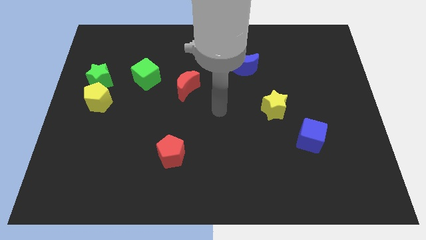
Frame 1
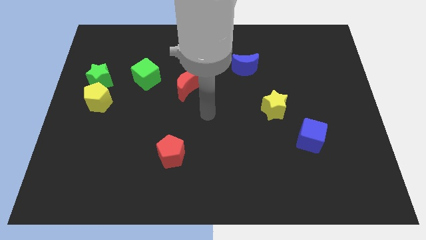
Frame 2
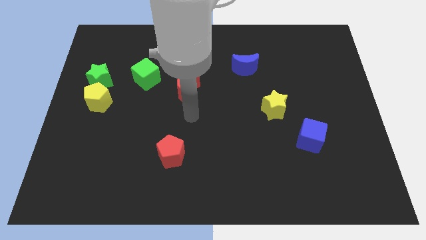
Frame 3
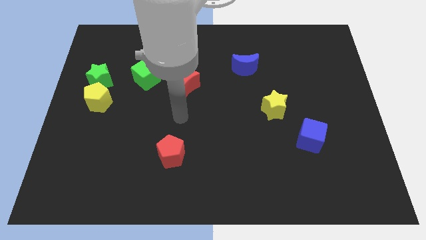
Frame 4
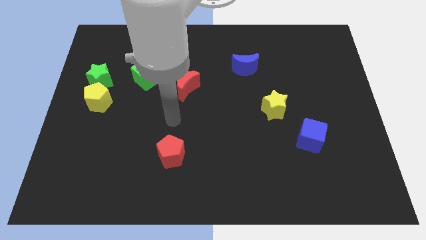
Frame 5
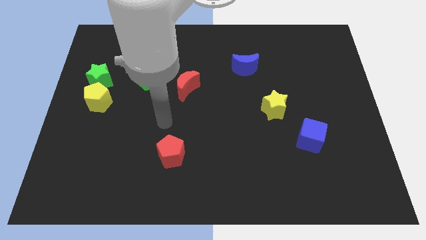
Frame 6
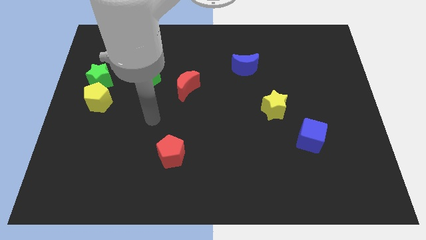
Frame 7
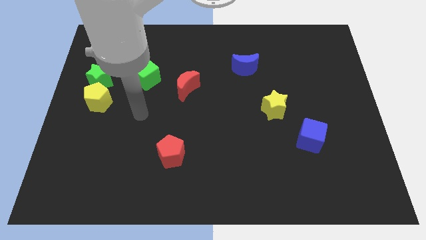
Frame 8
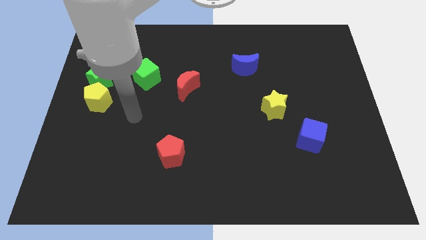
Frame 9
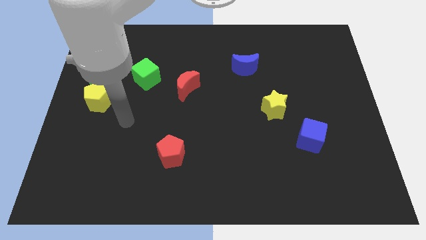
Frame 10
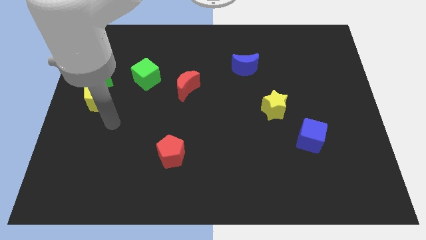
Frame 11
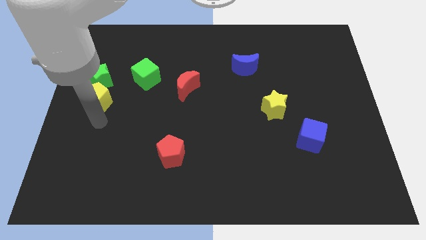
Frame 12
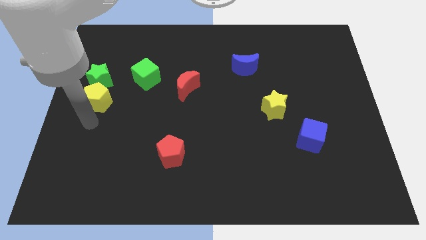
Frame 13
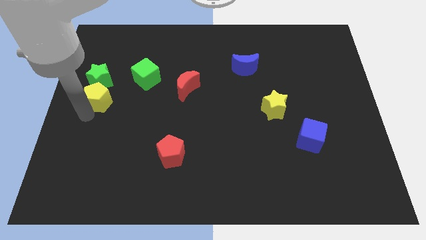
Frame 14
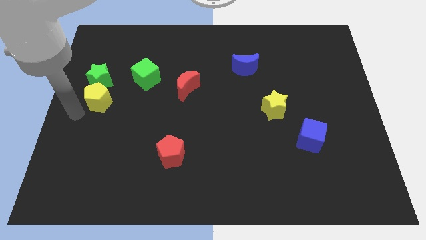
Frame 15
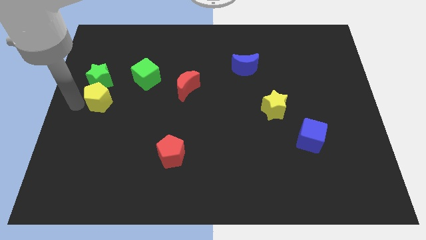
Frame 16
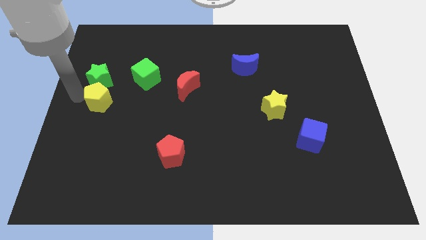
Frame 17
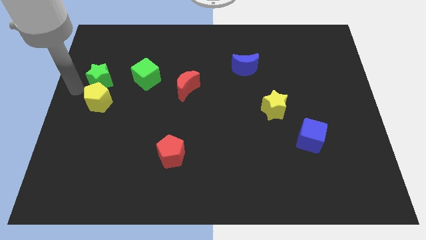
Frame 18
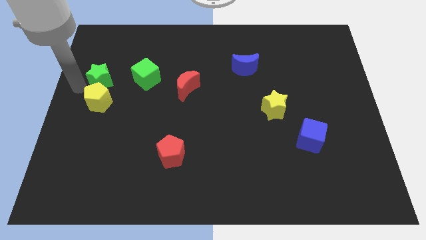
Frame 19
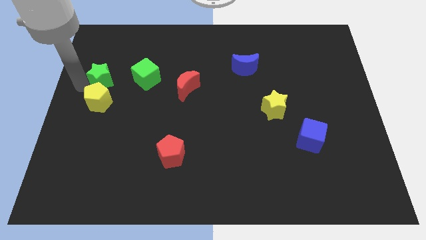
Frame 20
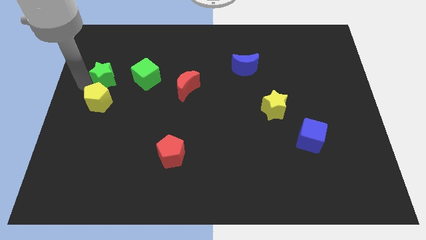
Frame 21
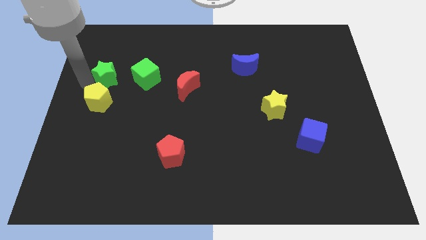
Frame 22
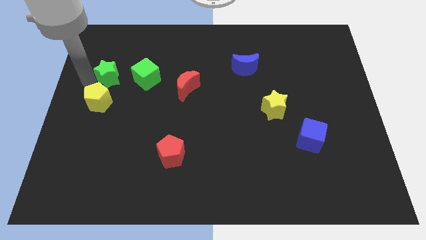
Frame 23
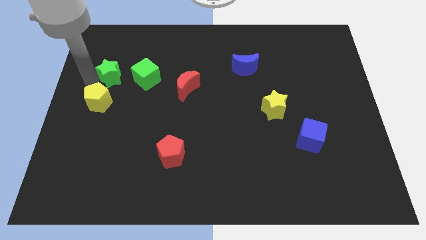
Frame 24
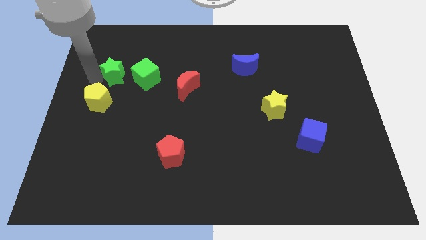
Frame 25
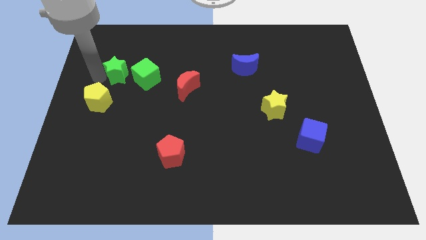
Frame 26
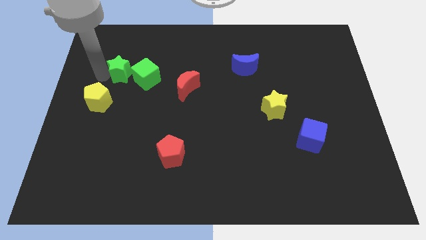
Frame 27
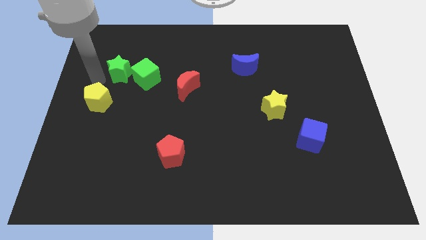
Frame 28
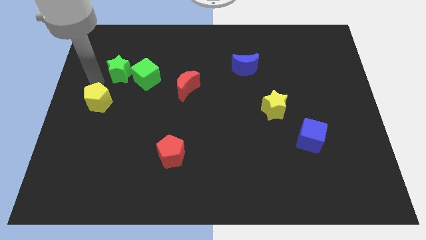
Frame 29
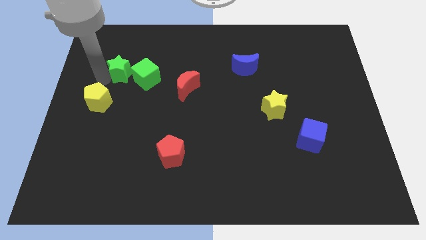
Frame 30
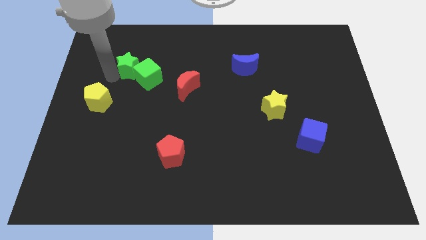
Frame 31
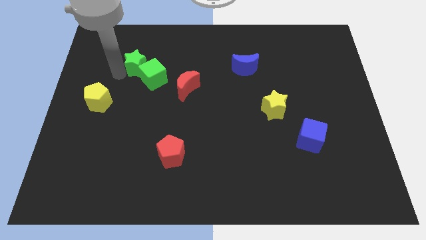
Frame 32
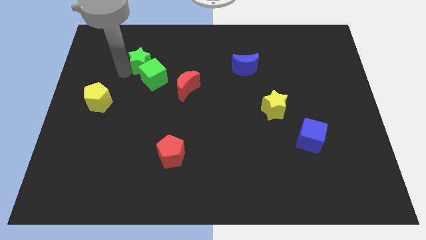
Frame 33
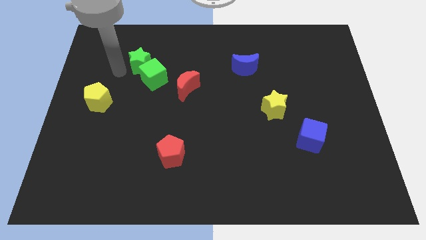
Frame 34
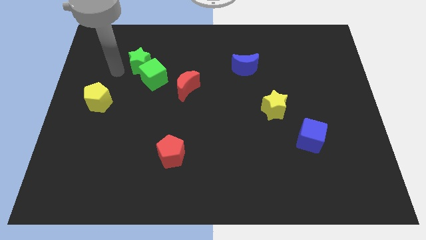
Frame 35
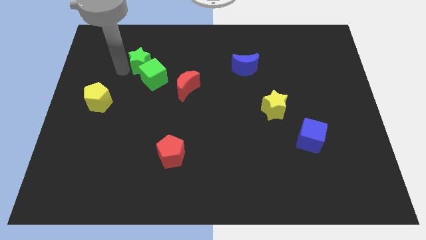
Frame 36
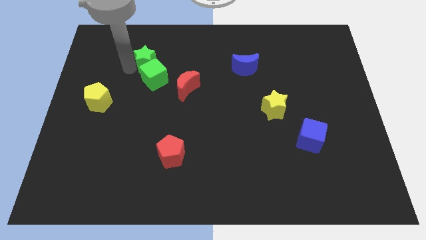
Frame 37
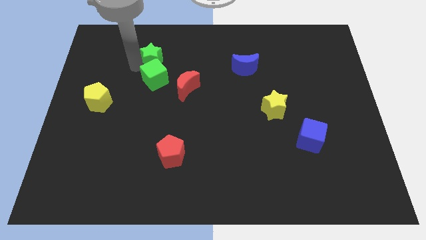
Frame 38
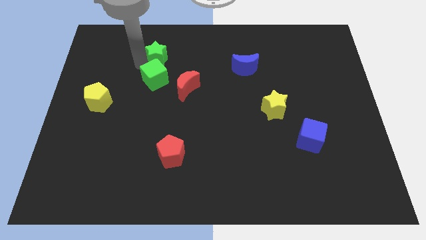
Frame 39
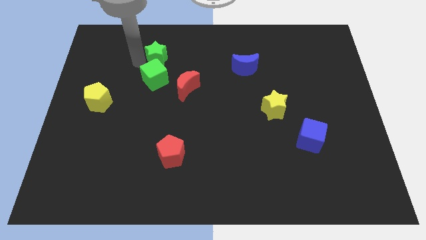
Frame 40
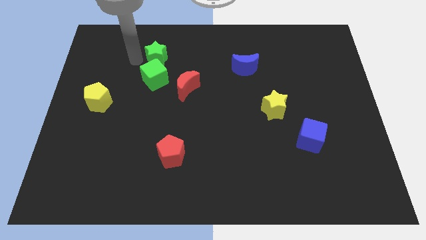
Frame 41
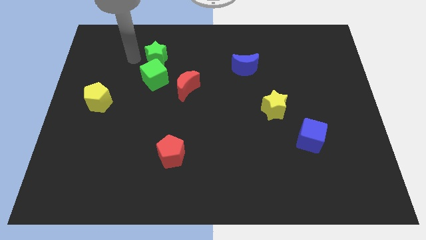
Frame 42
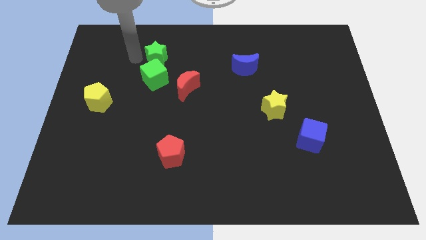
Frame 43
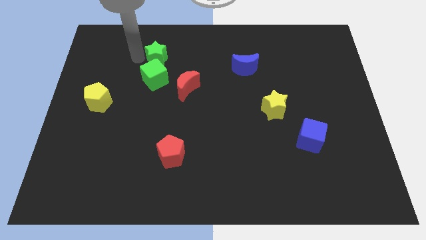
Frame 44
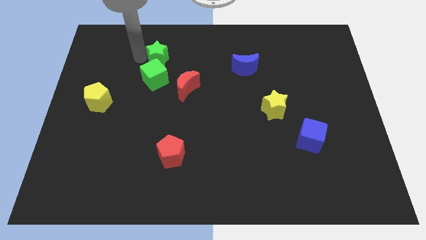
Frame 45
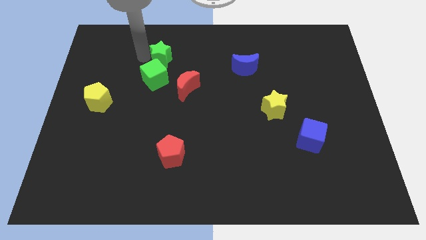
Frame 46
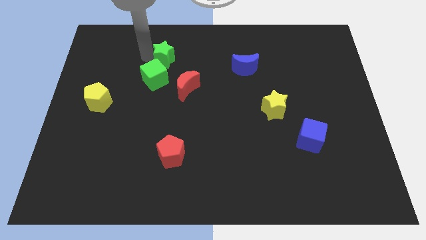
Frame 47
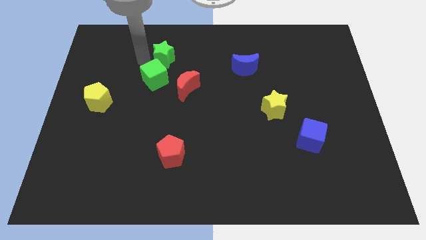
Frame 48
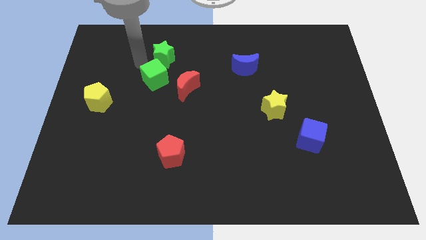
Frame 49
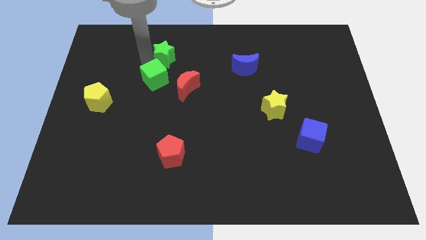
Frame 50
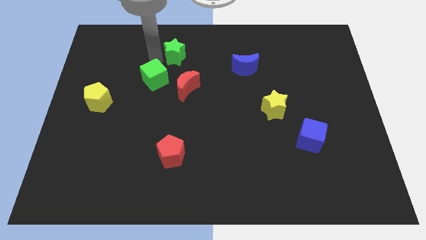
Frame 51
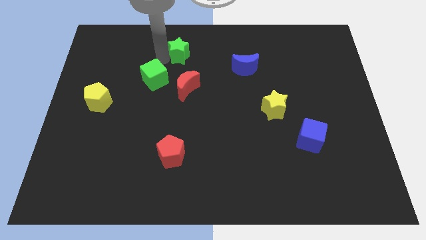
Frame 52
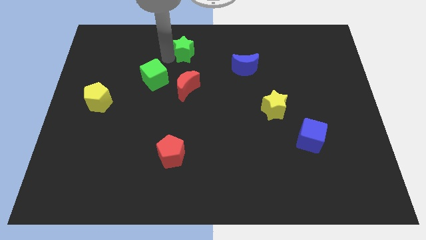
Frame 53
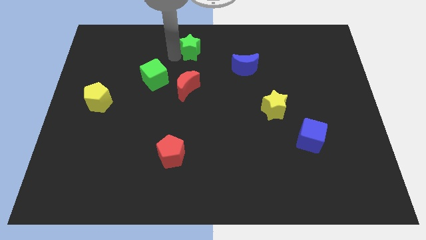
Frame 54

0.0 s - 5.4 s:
move the green star to the top
